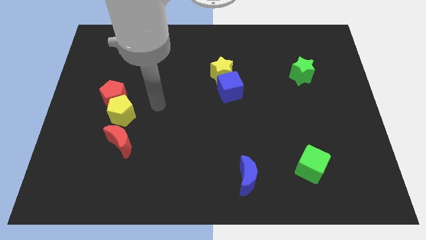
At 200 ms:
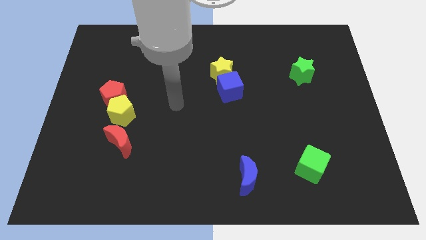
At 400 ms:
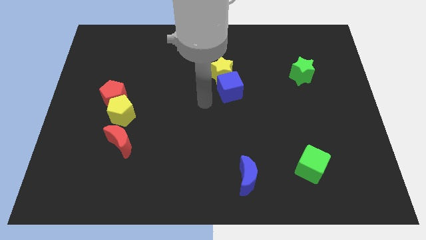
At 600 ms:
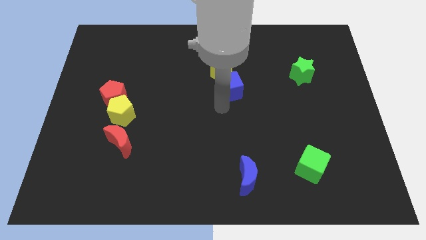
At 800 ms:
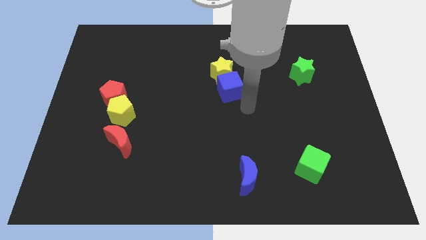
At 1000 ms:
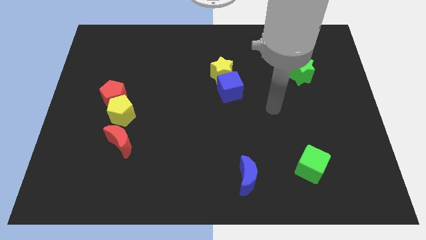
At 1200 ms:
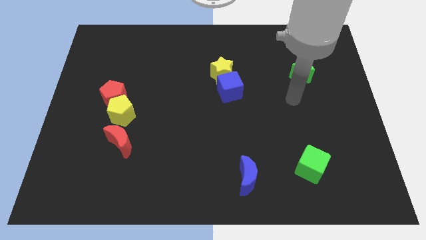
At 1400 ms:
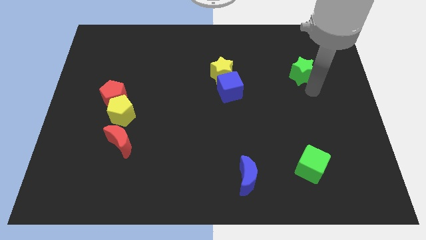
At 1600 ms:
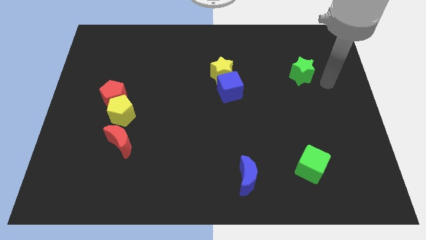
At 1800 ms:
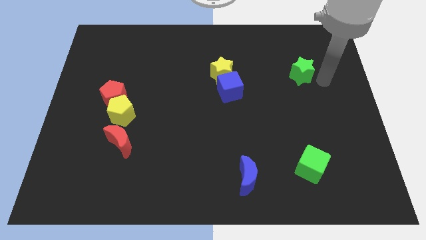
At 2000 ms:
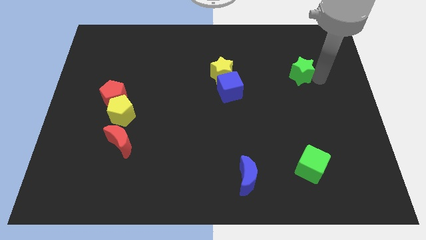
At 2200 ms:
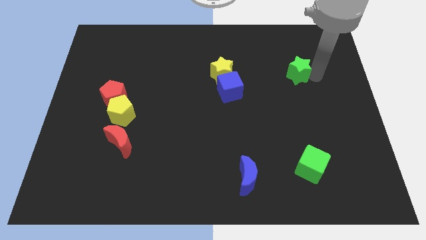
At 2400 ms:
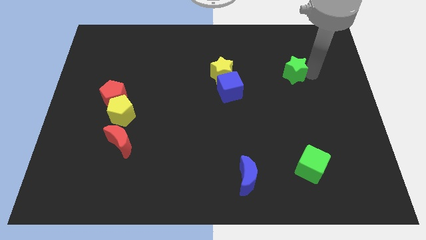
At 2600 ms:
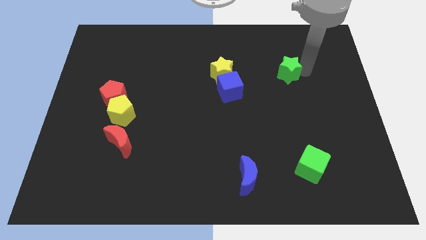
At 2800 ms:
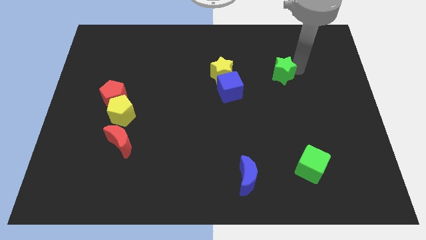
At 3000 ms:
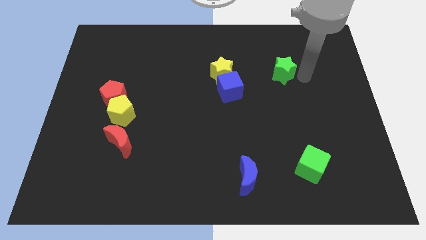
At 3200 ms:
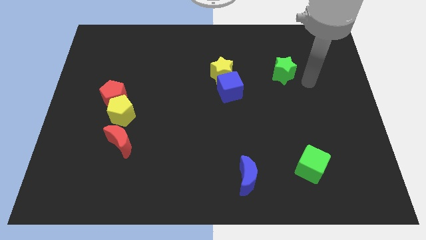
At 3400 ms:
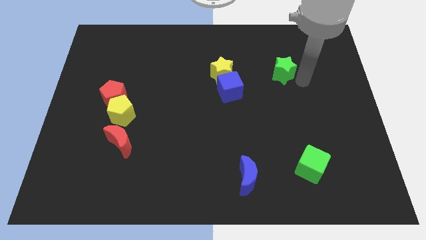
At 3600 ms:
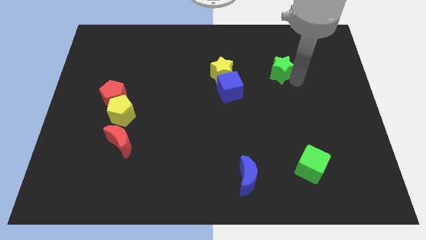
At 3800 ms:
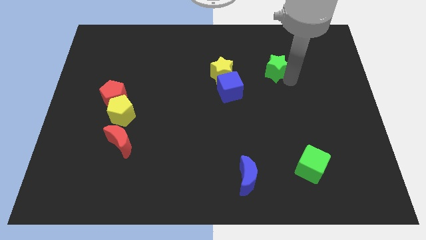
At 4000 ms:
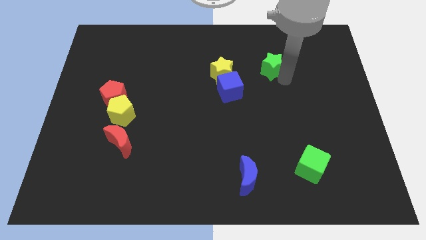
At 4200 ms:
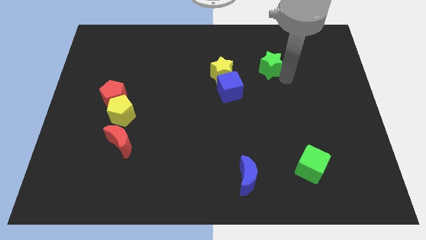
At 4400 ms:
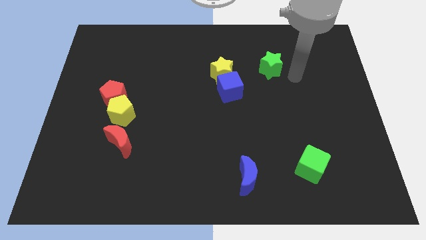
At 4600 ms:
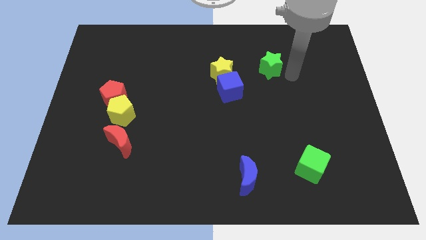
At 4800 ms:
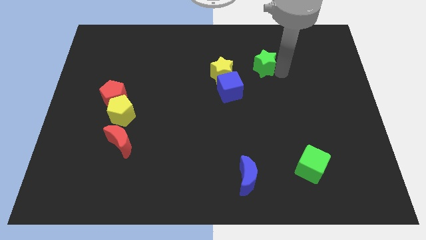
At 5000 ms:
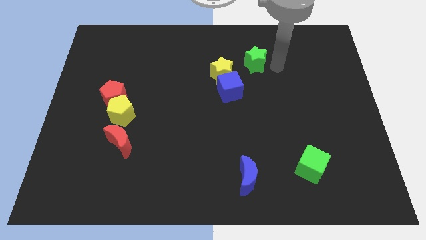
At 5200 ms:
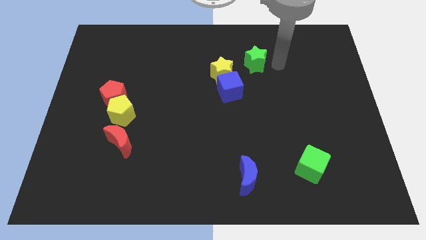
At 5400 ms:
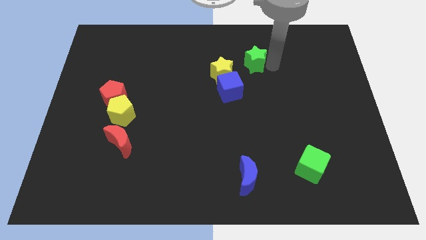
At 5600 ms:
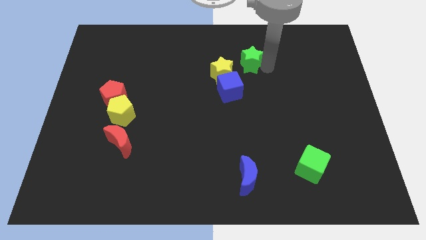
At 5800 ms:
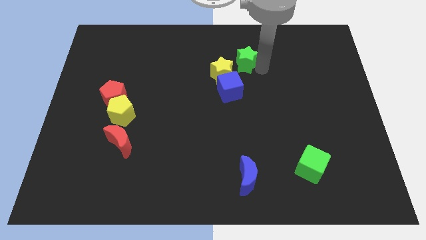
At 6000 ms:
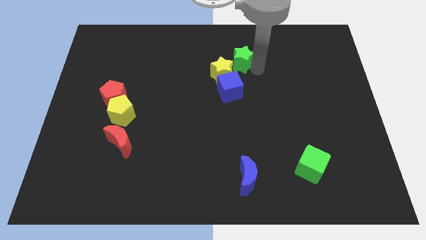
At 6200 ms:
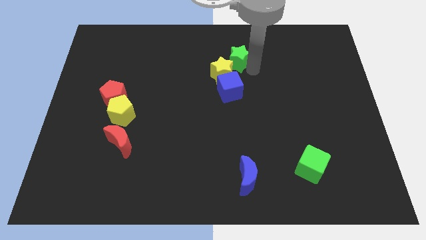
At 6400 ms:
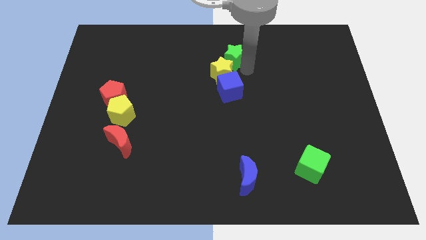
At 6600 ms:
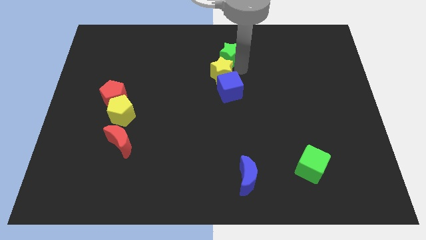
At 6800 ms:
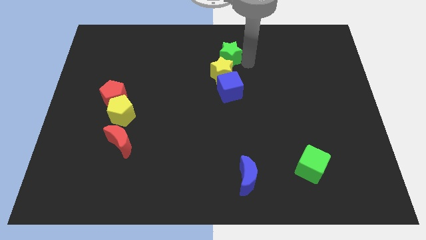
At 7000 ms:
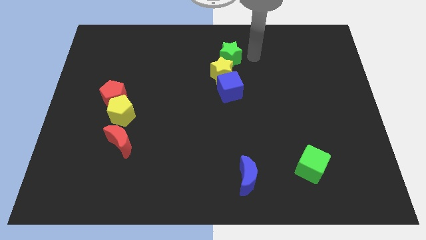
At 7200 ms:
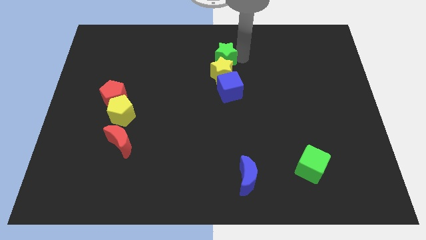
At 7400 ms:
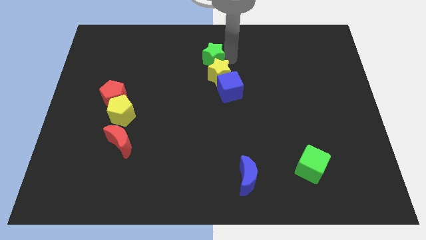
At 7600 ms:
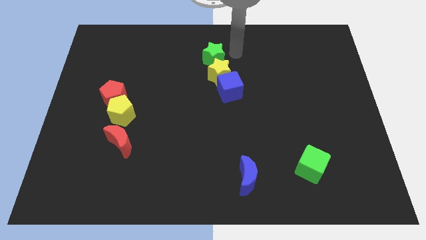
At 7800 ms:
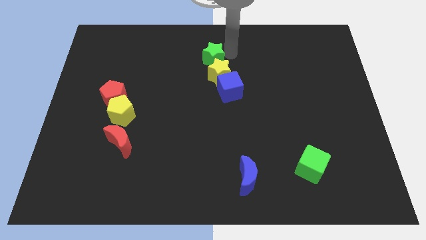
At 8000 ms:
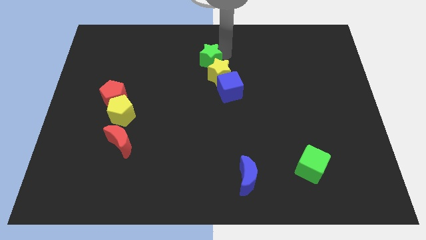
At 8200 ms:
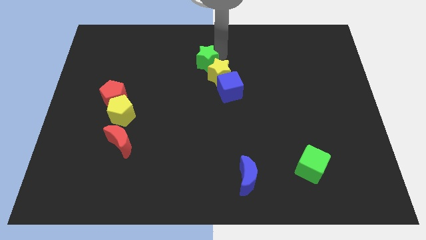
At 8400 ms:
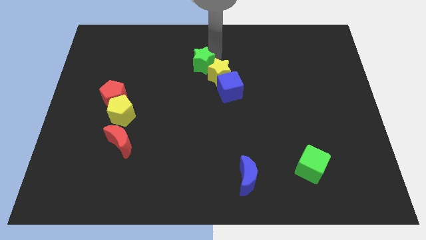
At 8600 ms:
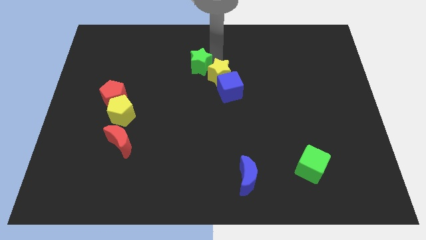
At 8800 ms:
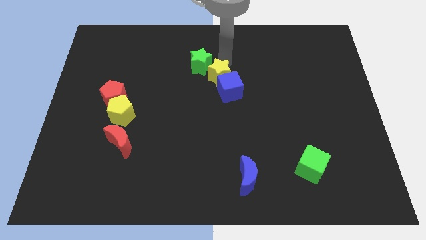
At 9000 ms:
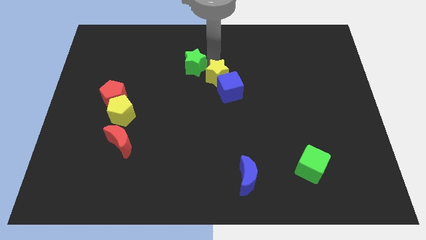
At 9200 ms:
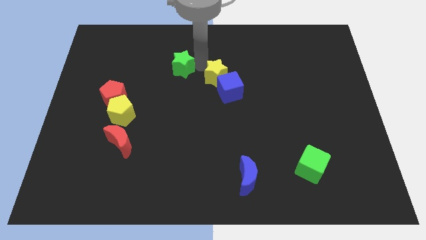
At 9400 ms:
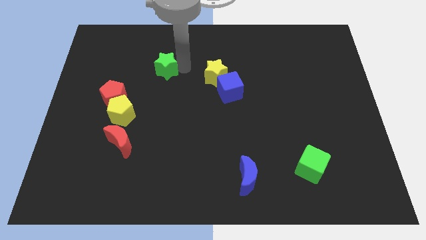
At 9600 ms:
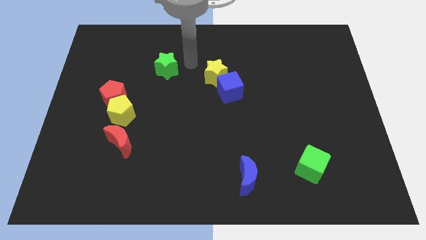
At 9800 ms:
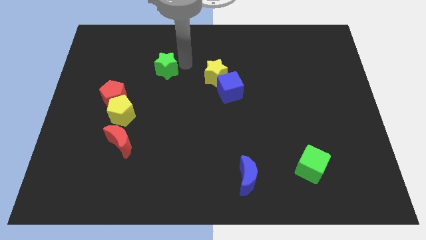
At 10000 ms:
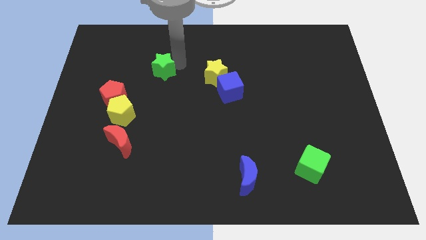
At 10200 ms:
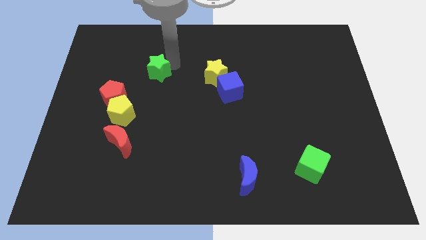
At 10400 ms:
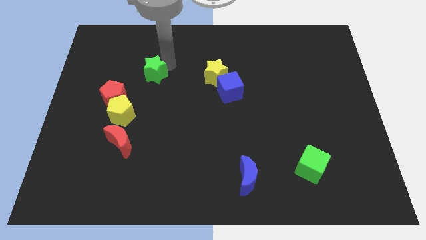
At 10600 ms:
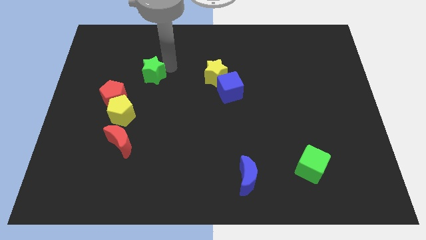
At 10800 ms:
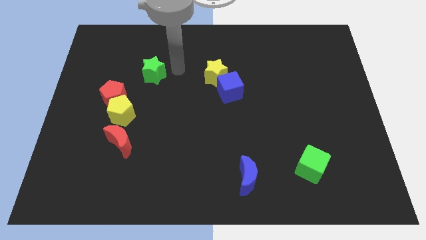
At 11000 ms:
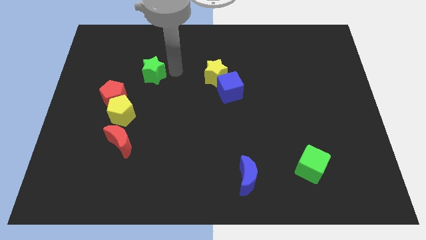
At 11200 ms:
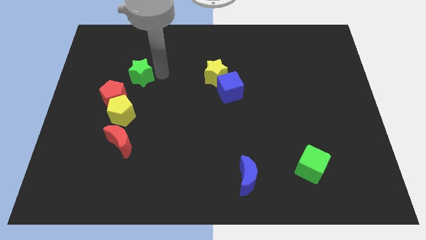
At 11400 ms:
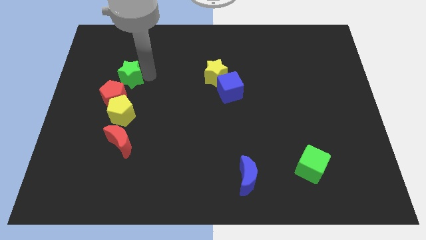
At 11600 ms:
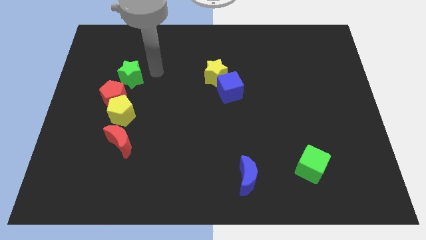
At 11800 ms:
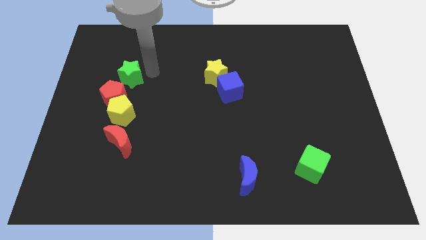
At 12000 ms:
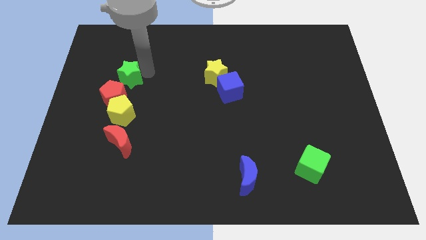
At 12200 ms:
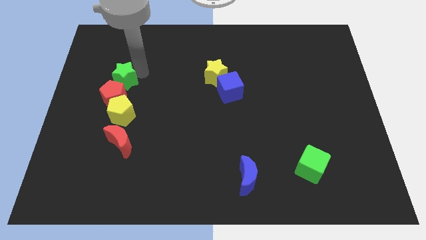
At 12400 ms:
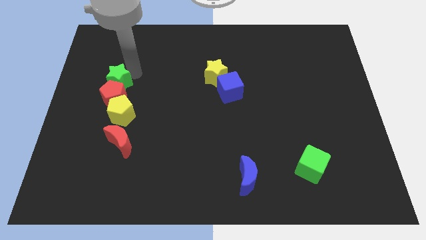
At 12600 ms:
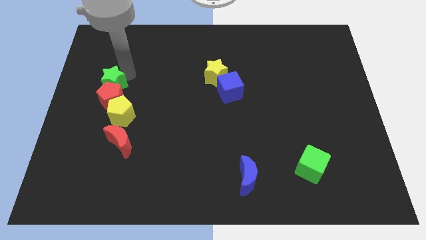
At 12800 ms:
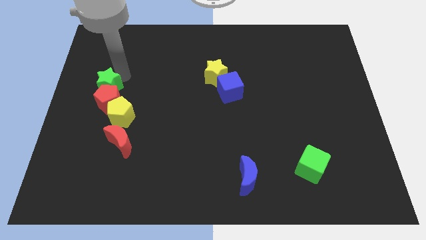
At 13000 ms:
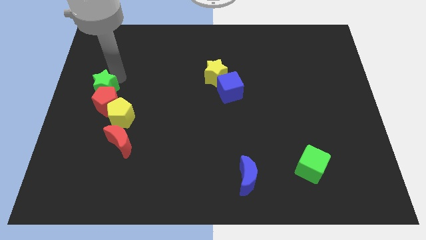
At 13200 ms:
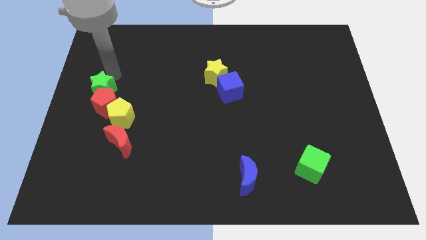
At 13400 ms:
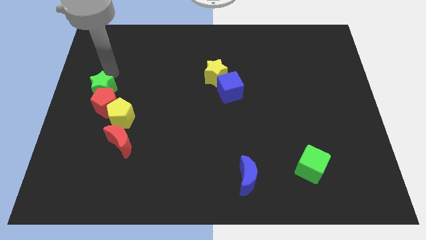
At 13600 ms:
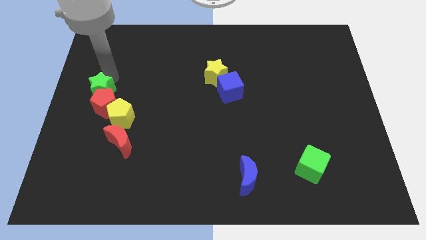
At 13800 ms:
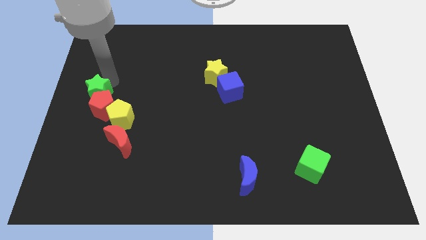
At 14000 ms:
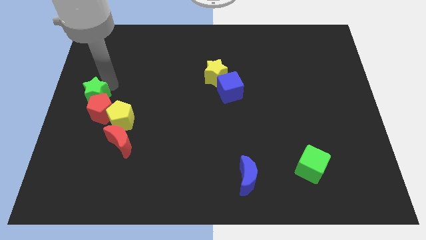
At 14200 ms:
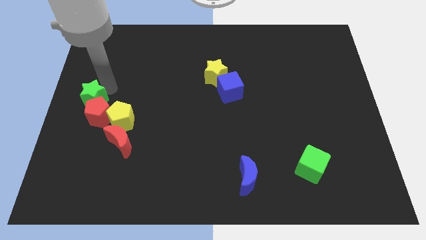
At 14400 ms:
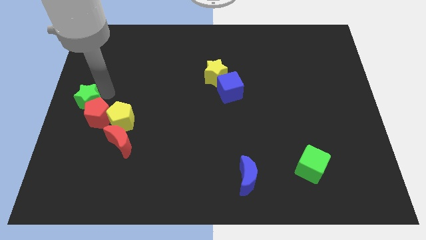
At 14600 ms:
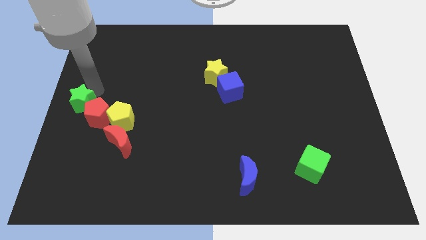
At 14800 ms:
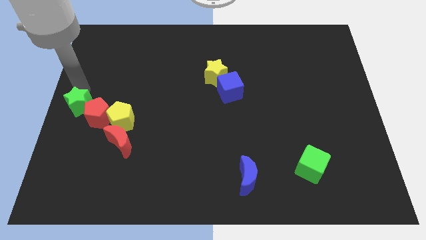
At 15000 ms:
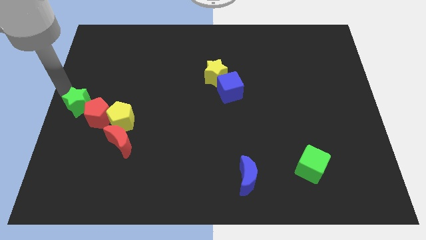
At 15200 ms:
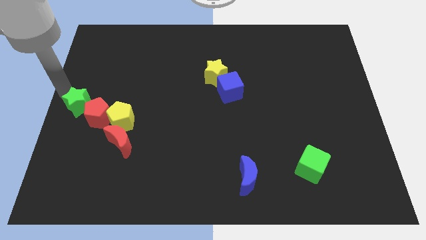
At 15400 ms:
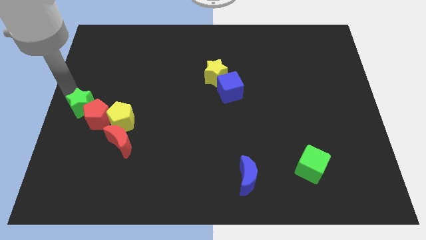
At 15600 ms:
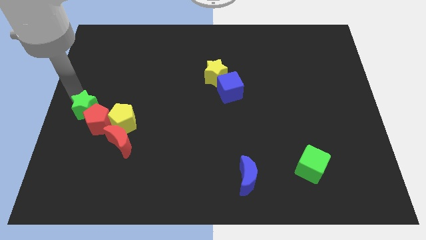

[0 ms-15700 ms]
move the green star to the top left side of the red moon
